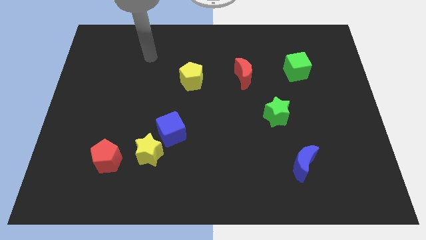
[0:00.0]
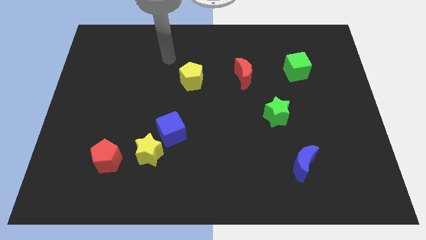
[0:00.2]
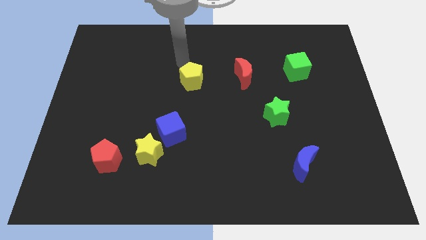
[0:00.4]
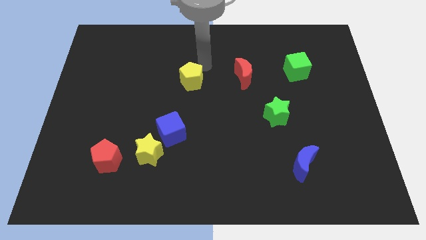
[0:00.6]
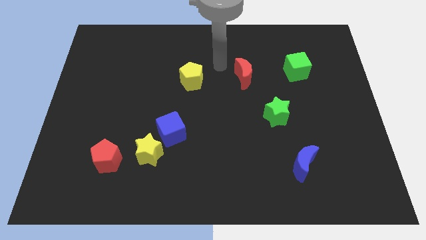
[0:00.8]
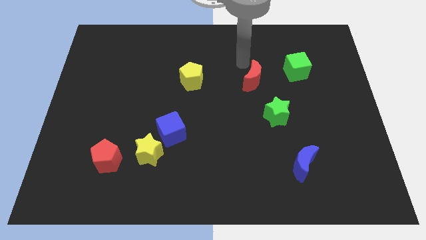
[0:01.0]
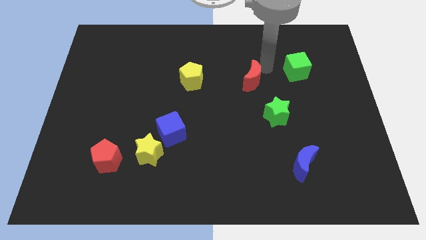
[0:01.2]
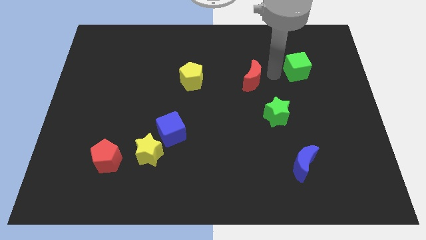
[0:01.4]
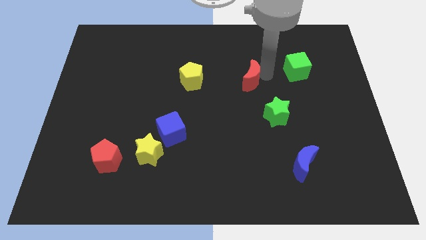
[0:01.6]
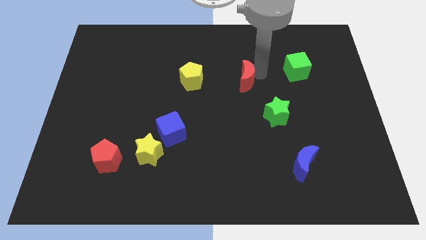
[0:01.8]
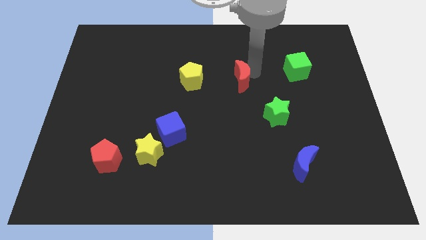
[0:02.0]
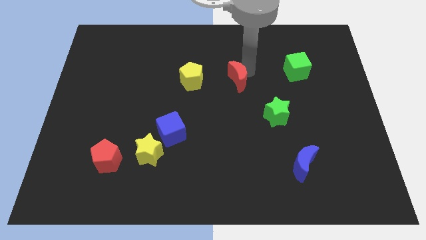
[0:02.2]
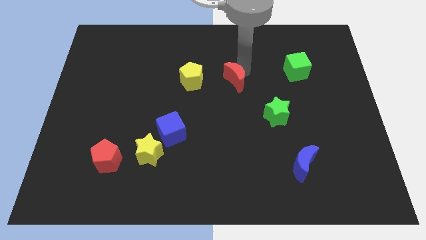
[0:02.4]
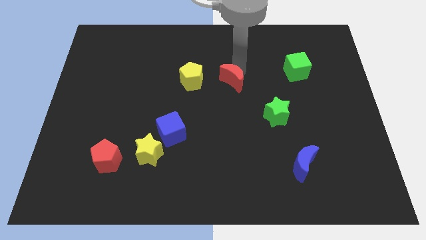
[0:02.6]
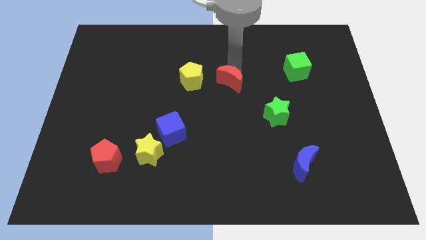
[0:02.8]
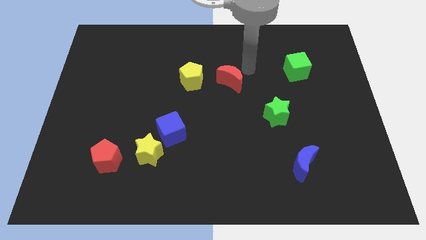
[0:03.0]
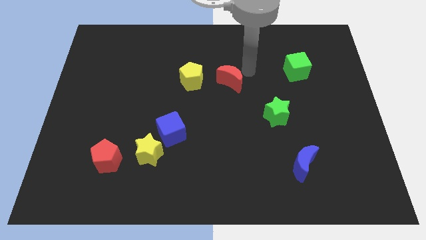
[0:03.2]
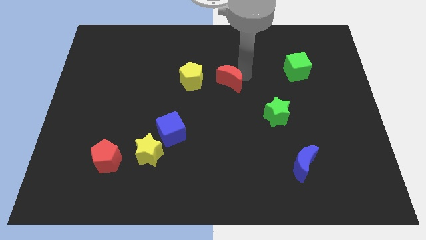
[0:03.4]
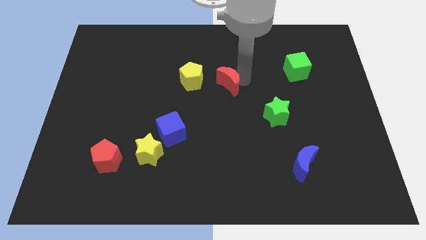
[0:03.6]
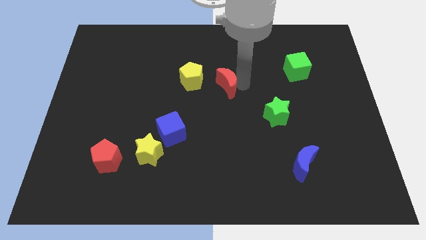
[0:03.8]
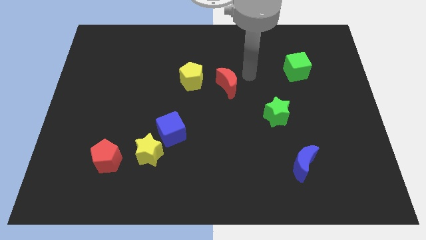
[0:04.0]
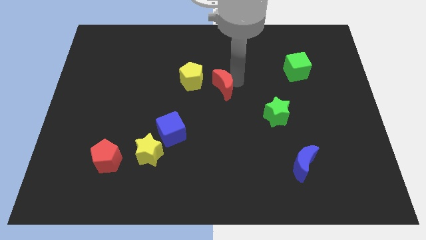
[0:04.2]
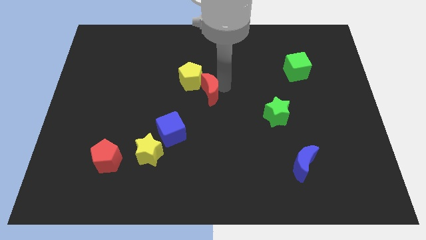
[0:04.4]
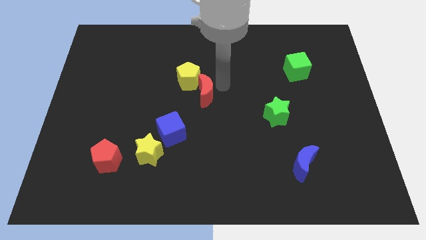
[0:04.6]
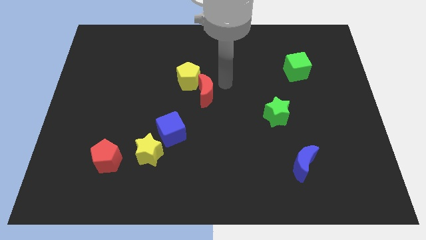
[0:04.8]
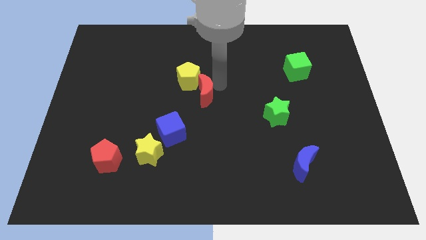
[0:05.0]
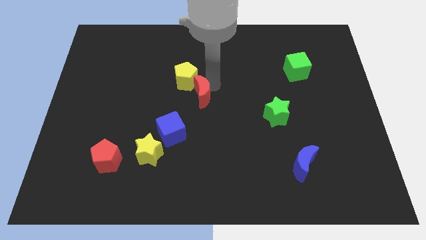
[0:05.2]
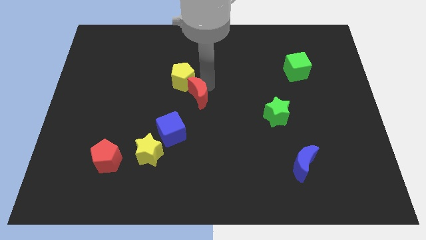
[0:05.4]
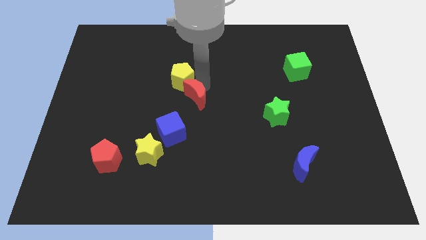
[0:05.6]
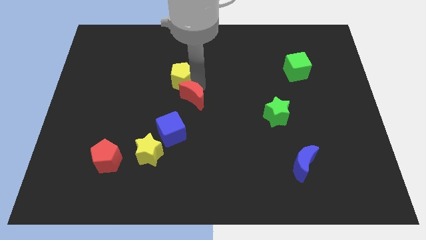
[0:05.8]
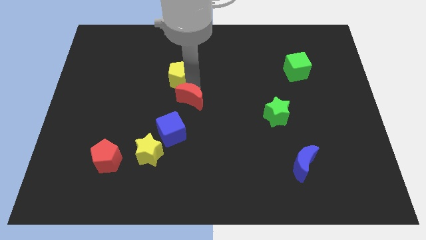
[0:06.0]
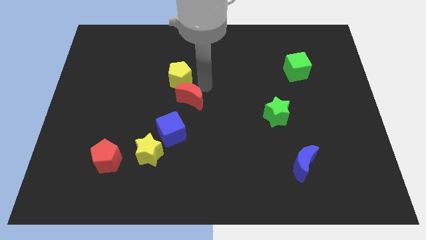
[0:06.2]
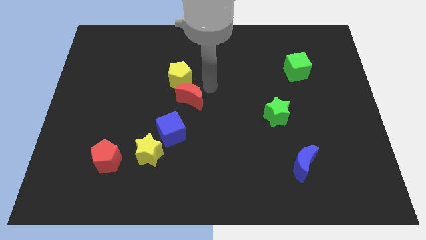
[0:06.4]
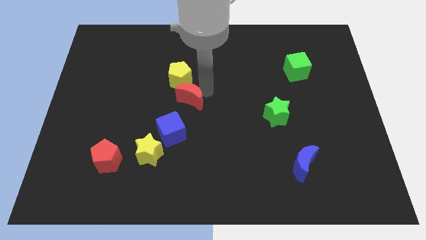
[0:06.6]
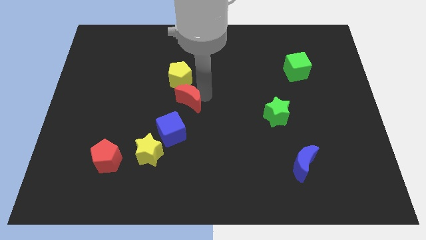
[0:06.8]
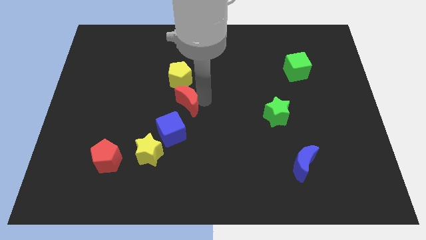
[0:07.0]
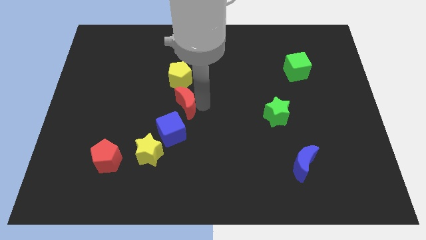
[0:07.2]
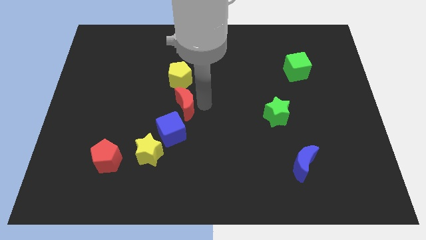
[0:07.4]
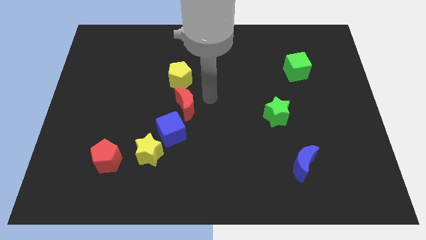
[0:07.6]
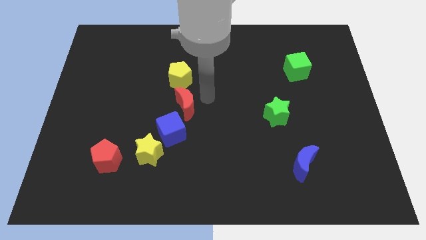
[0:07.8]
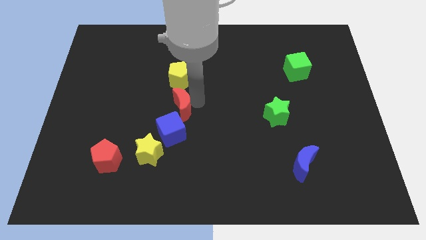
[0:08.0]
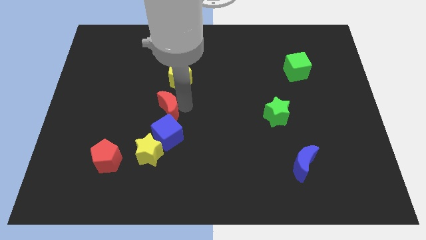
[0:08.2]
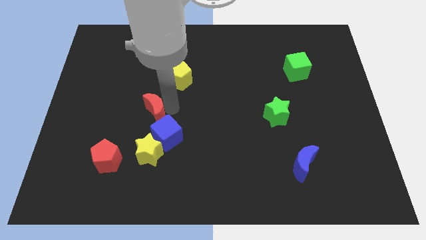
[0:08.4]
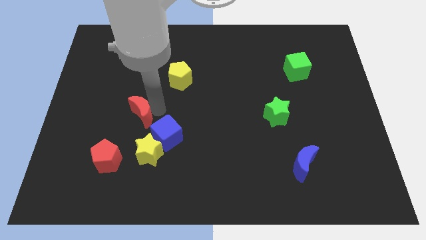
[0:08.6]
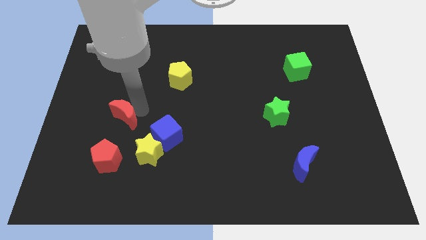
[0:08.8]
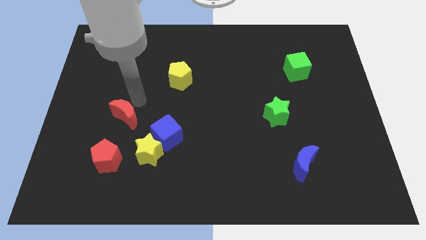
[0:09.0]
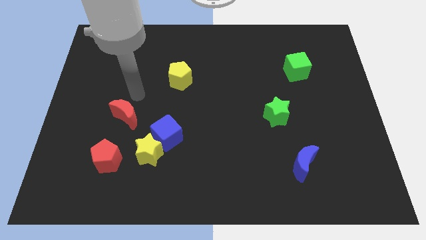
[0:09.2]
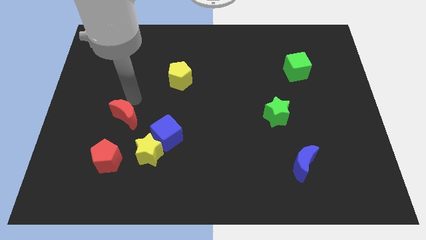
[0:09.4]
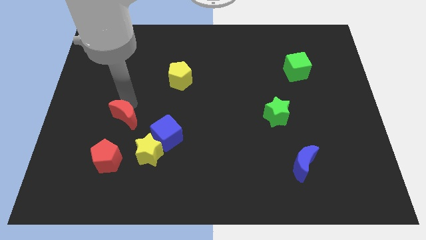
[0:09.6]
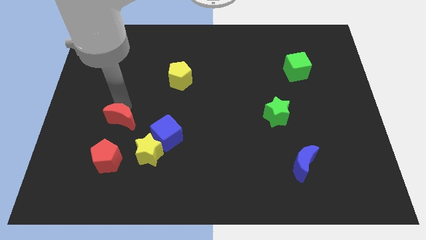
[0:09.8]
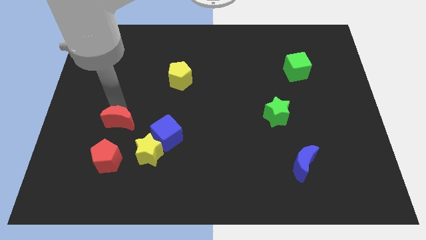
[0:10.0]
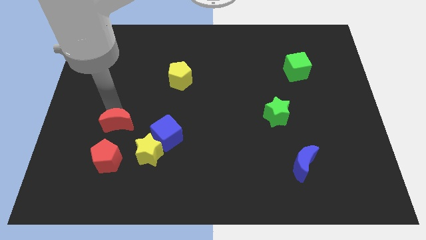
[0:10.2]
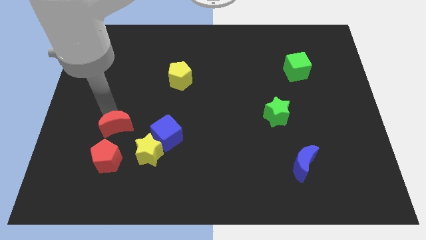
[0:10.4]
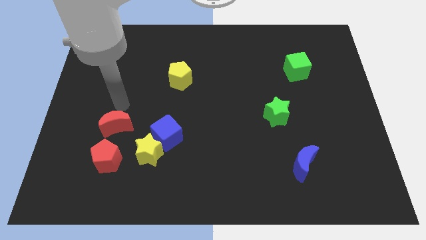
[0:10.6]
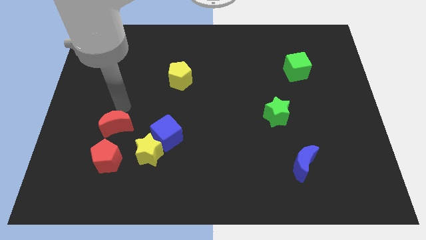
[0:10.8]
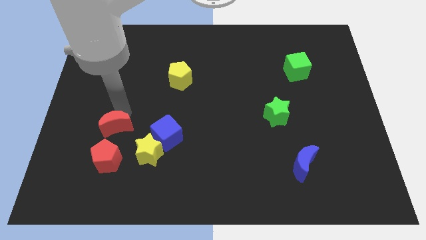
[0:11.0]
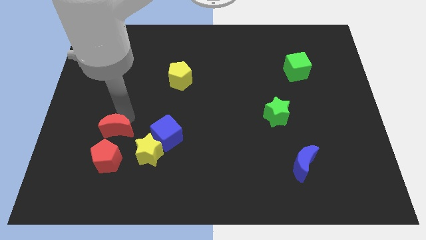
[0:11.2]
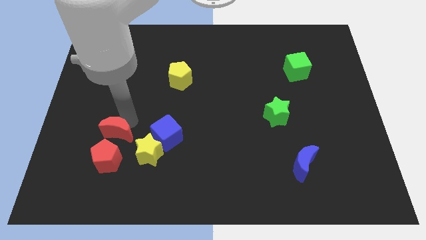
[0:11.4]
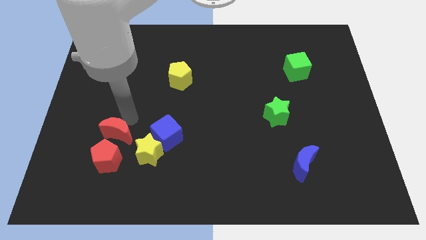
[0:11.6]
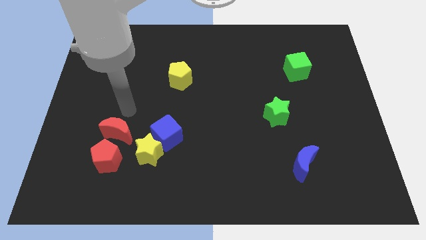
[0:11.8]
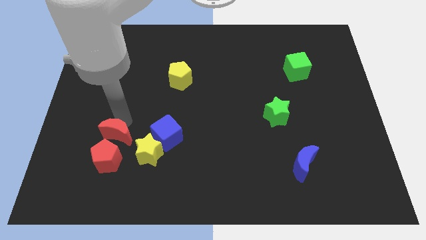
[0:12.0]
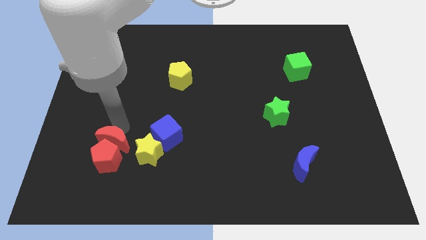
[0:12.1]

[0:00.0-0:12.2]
slide the red moon next to the red pentagon

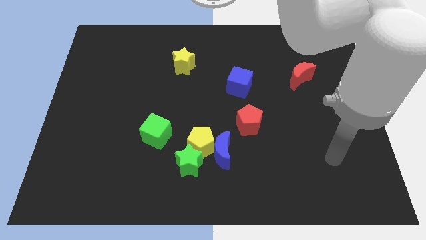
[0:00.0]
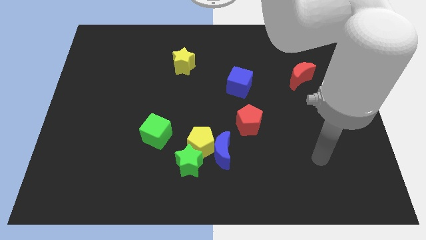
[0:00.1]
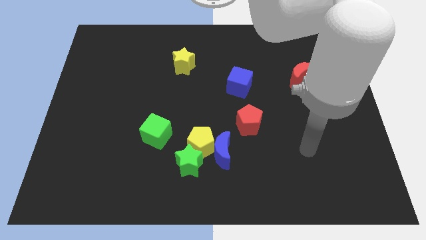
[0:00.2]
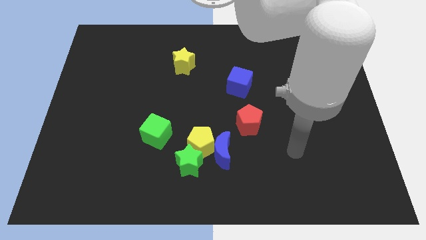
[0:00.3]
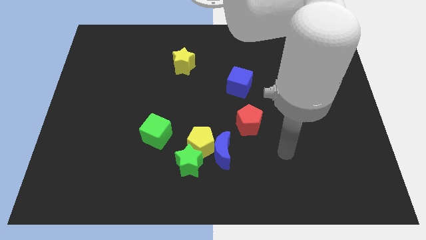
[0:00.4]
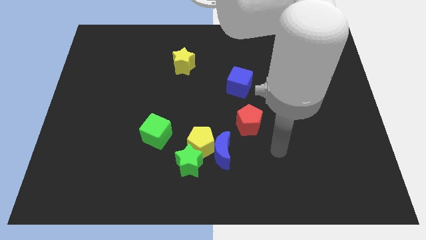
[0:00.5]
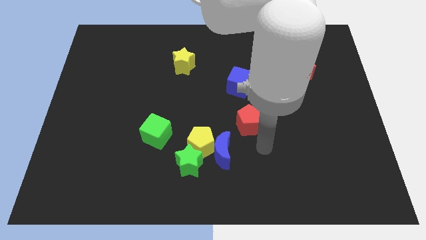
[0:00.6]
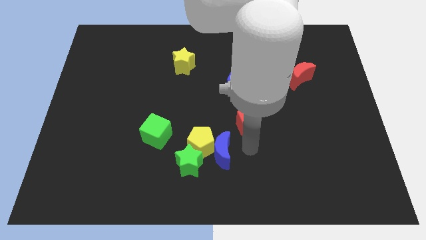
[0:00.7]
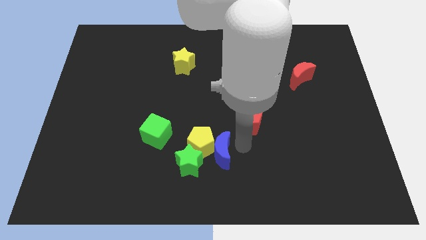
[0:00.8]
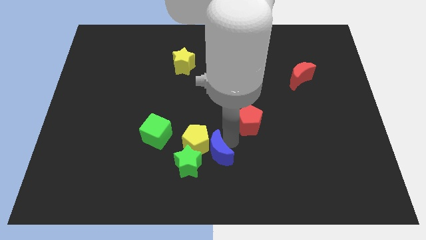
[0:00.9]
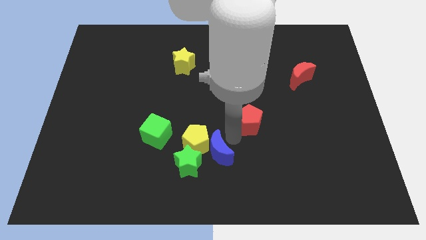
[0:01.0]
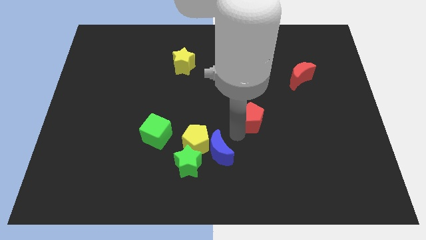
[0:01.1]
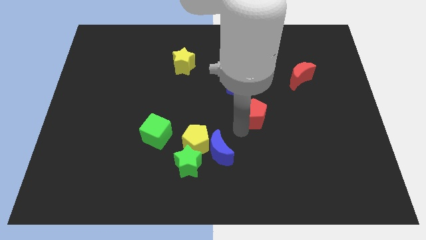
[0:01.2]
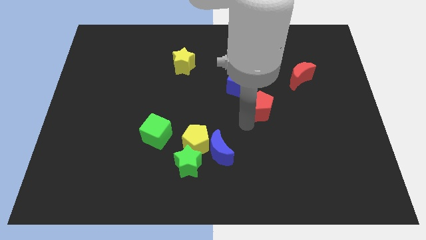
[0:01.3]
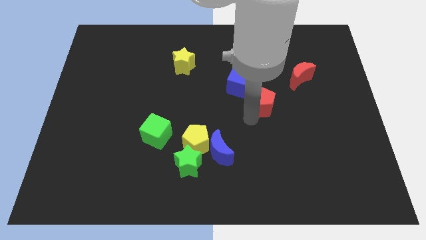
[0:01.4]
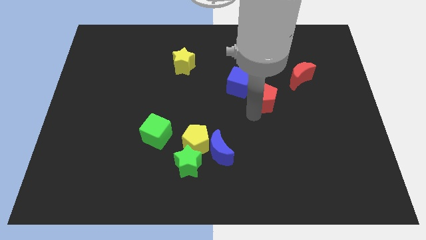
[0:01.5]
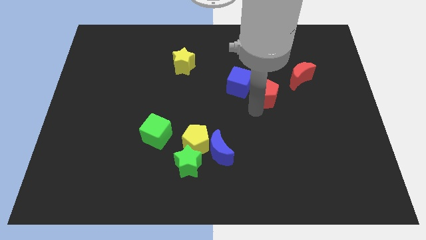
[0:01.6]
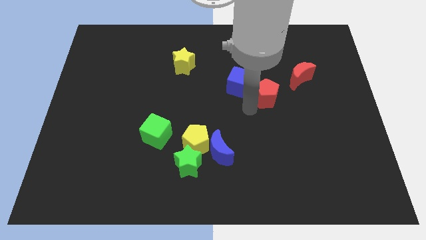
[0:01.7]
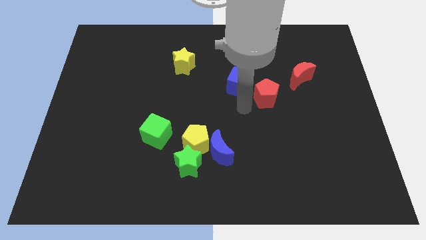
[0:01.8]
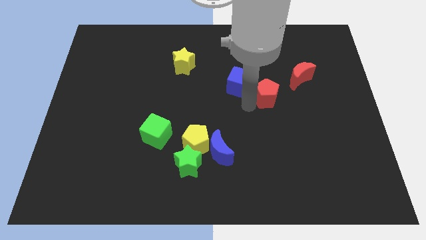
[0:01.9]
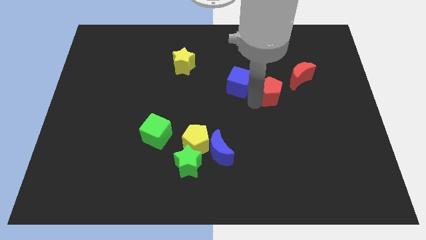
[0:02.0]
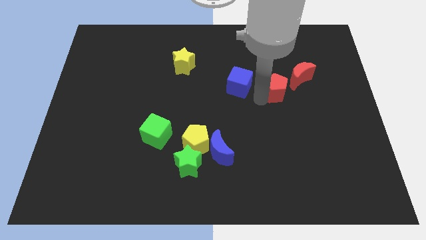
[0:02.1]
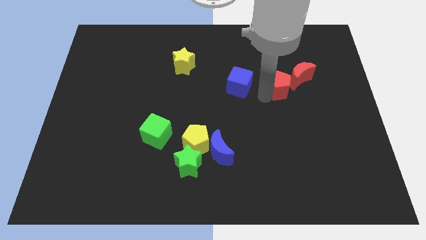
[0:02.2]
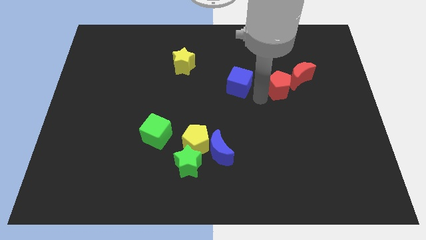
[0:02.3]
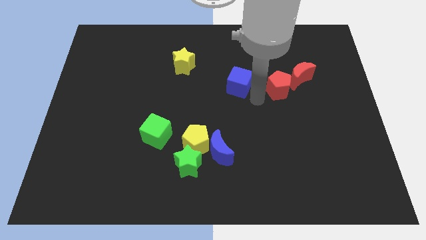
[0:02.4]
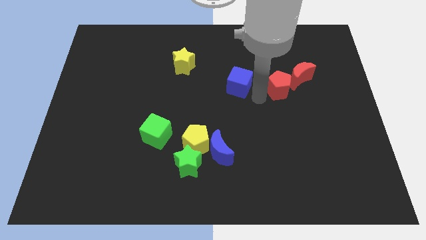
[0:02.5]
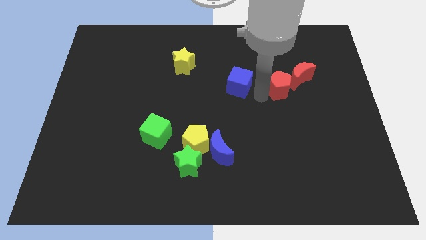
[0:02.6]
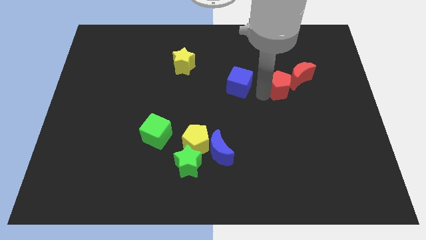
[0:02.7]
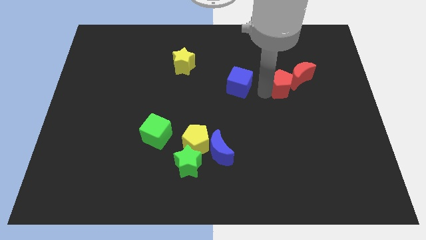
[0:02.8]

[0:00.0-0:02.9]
put the red pentagon close to the red moon
